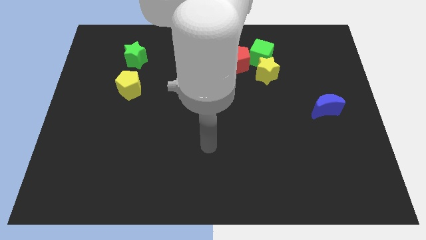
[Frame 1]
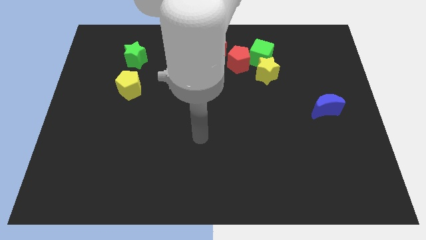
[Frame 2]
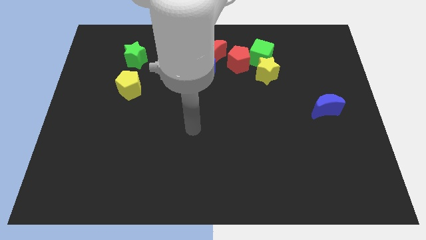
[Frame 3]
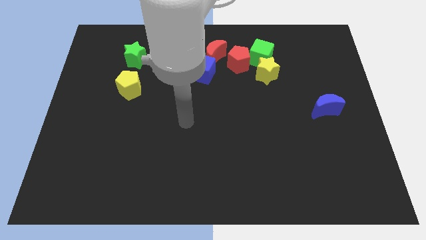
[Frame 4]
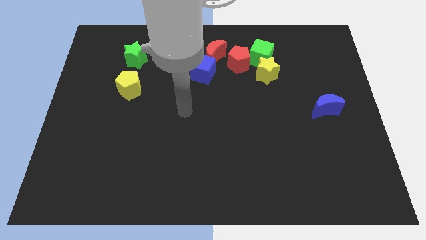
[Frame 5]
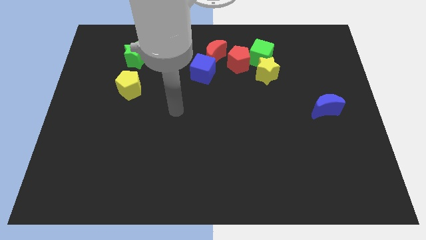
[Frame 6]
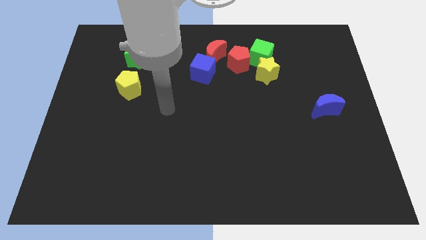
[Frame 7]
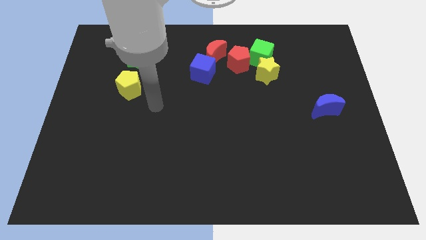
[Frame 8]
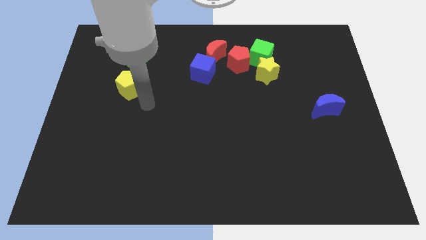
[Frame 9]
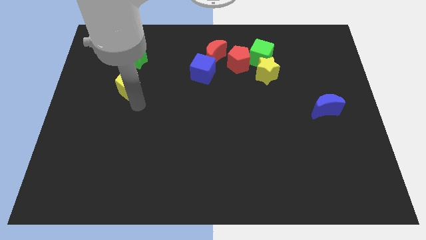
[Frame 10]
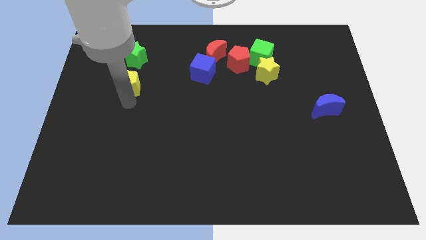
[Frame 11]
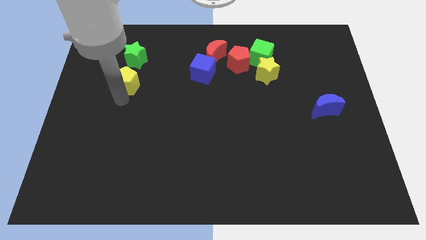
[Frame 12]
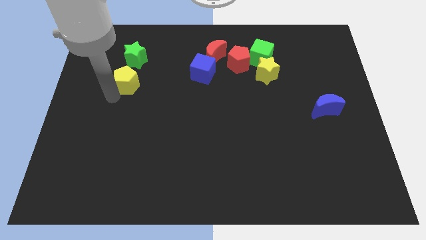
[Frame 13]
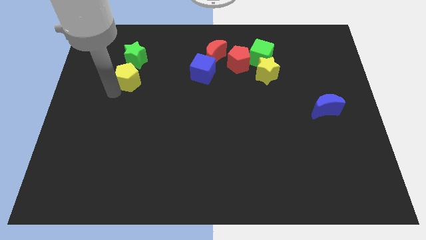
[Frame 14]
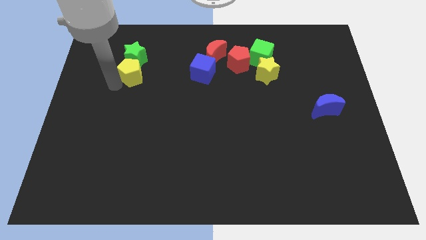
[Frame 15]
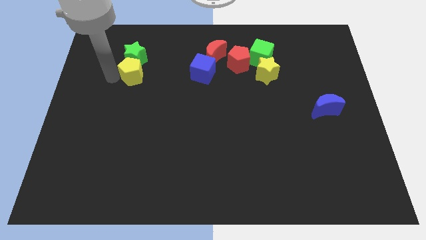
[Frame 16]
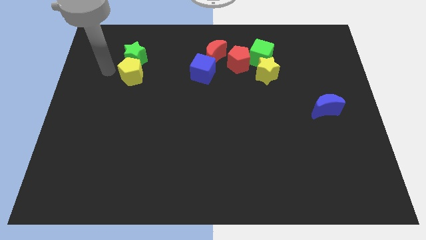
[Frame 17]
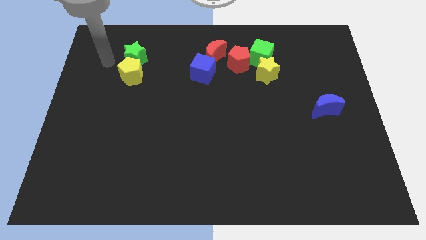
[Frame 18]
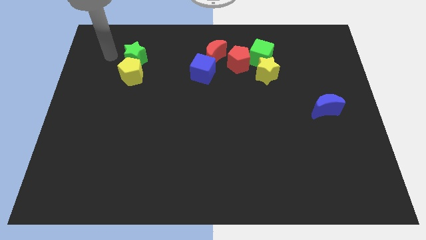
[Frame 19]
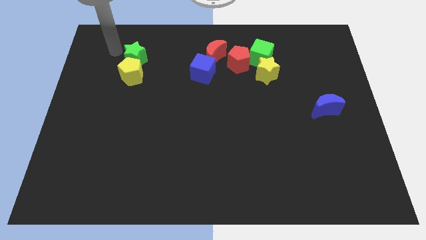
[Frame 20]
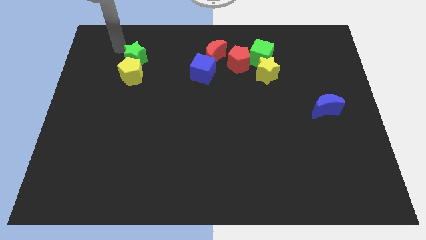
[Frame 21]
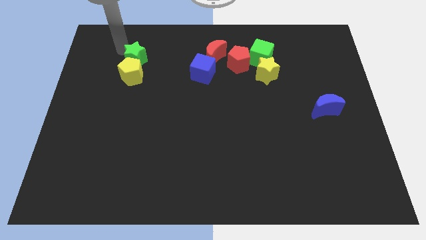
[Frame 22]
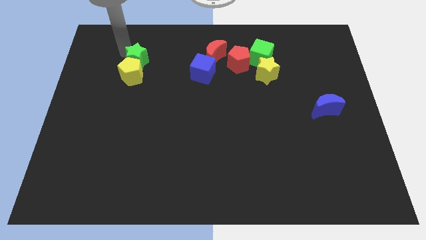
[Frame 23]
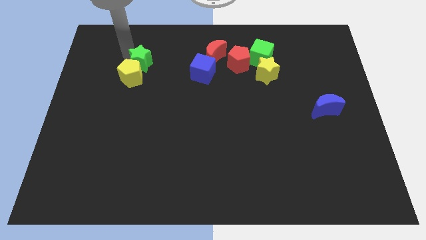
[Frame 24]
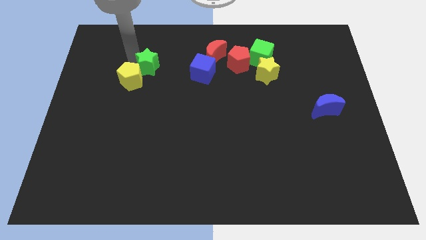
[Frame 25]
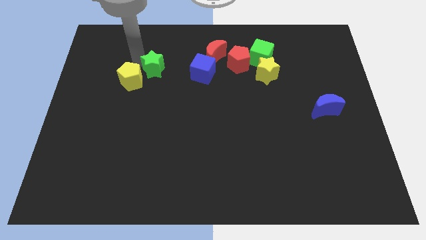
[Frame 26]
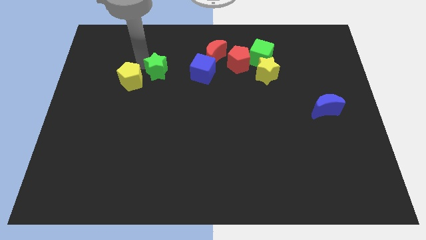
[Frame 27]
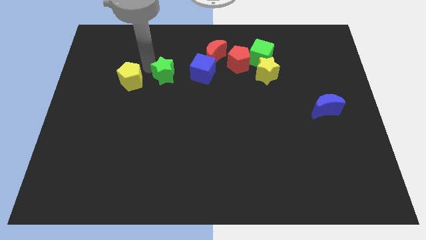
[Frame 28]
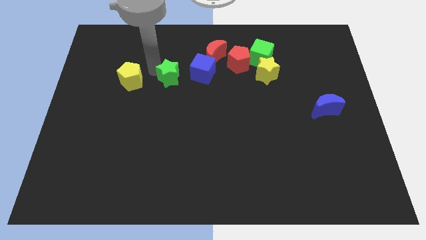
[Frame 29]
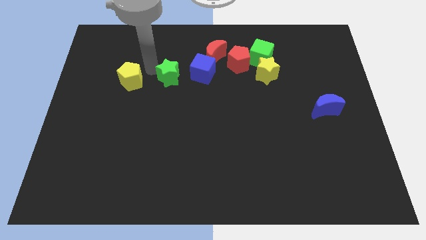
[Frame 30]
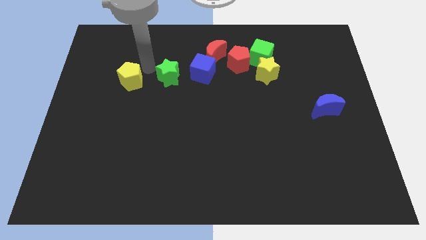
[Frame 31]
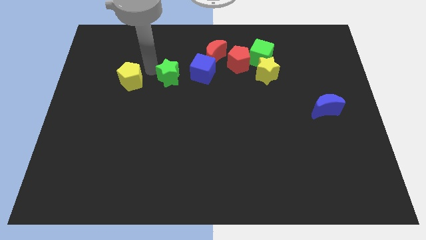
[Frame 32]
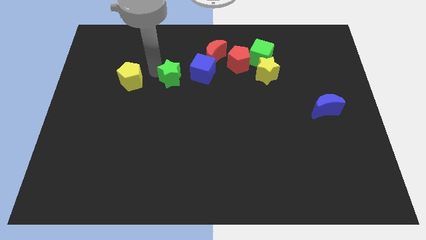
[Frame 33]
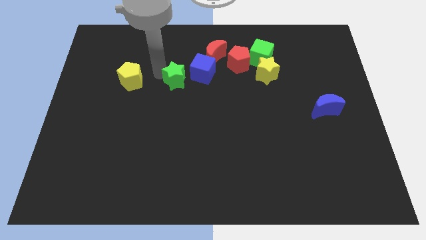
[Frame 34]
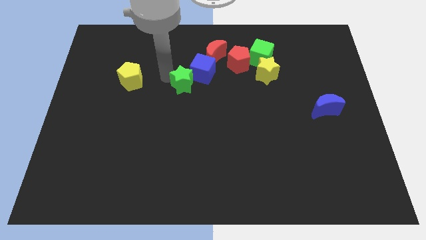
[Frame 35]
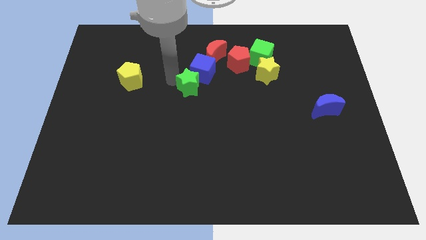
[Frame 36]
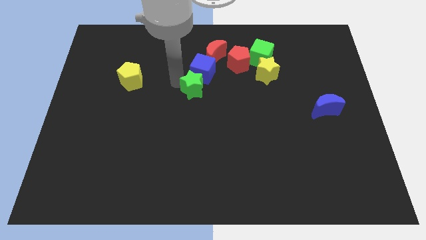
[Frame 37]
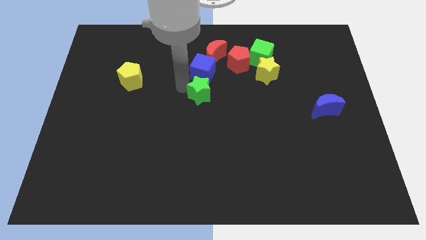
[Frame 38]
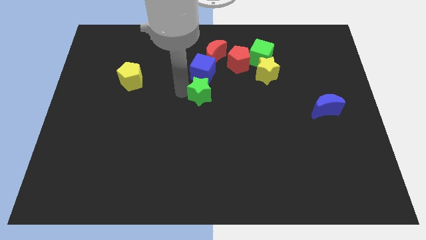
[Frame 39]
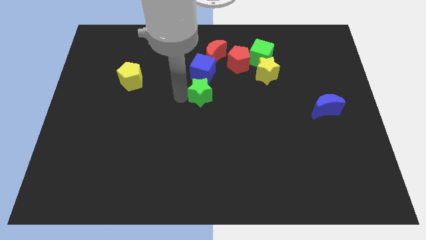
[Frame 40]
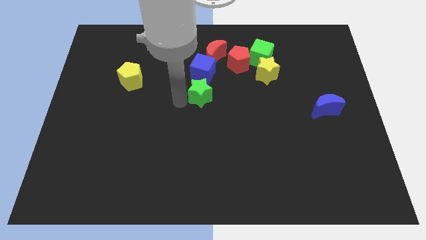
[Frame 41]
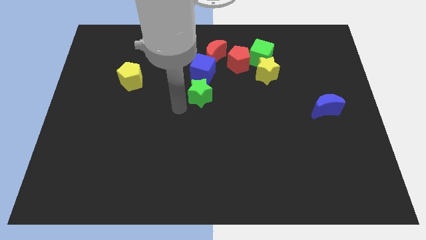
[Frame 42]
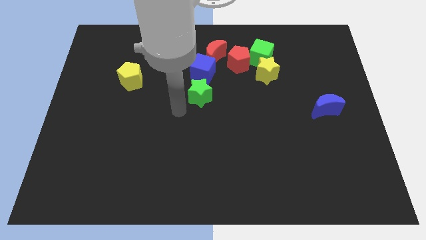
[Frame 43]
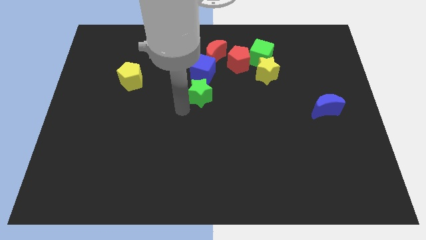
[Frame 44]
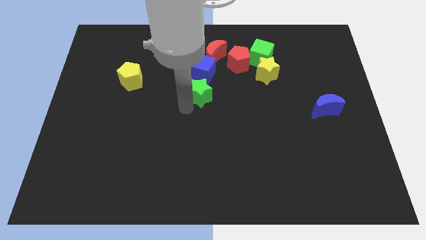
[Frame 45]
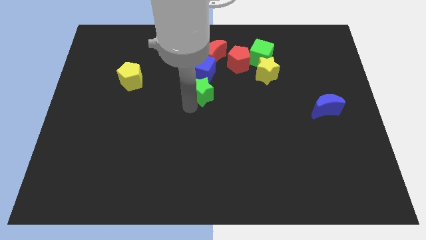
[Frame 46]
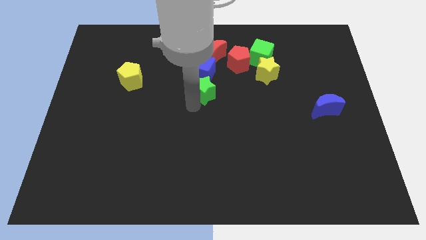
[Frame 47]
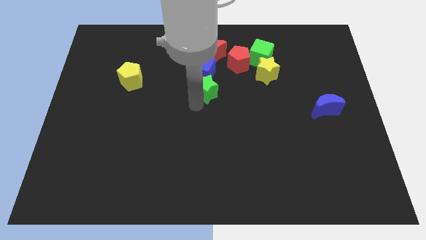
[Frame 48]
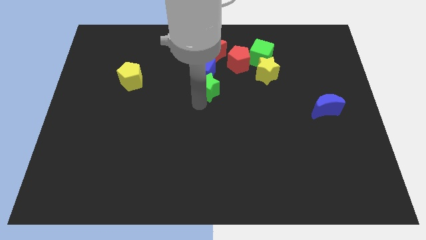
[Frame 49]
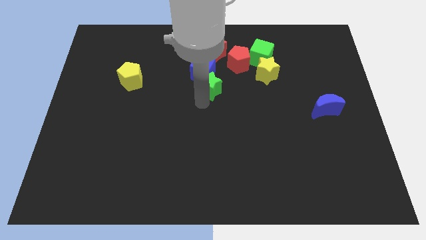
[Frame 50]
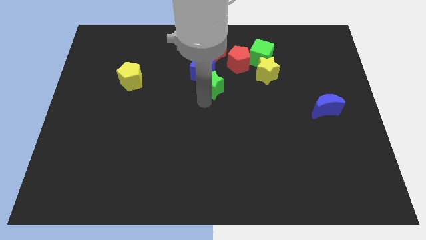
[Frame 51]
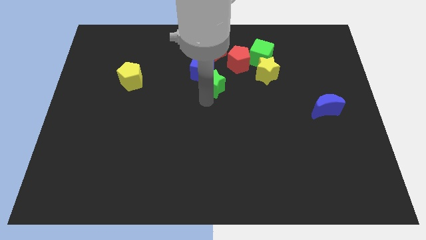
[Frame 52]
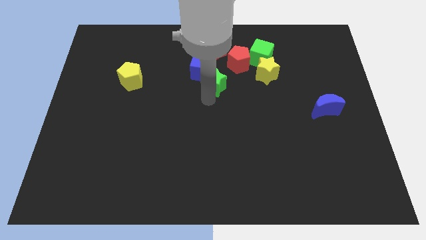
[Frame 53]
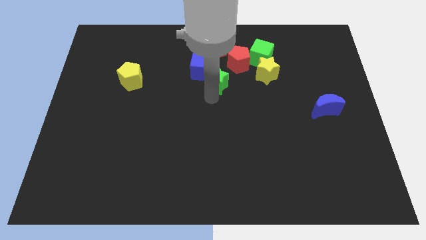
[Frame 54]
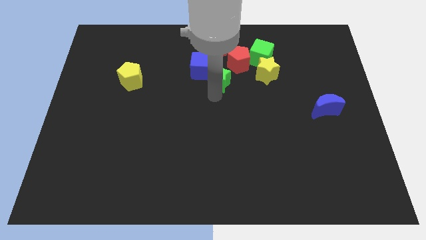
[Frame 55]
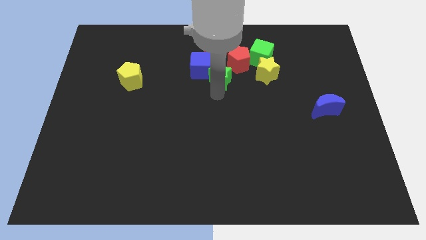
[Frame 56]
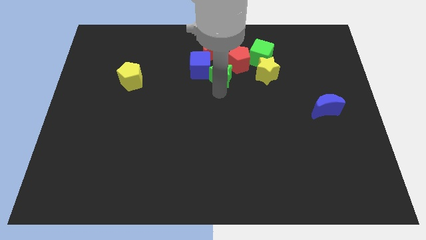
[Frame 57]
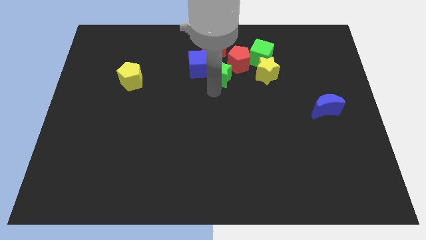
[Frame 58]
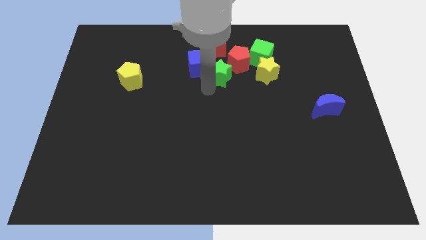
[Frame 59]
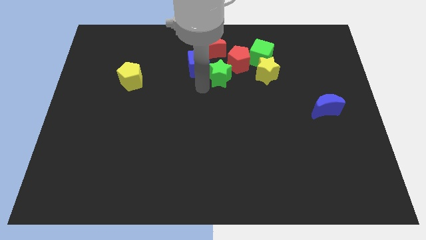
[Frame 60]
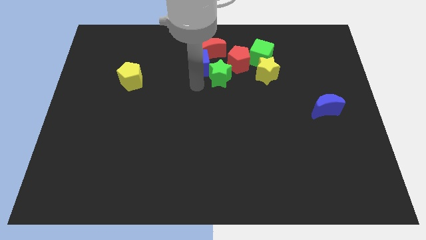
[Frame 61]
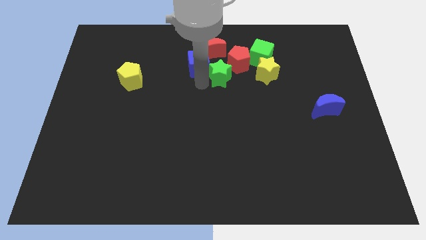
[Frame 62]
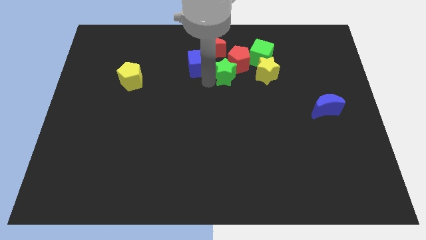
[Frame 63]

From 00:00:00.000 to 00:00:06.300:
move the green star to the bottom left of the green cube
